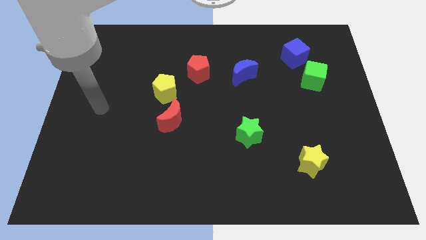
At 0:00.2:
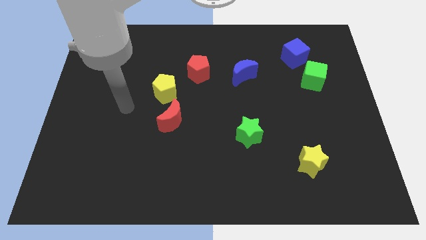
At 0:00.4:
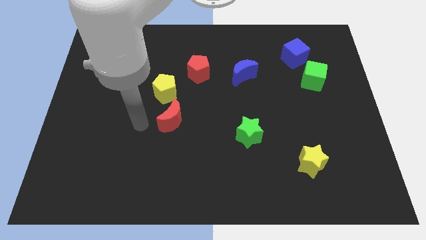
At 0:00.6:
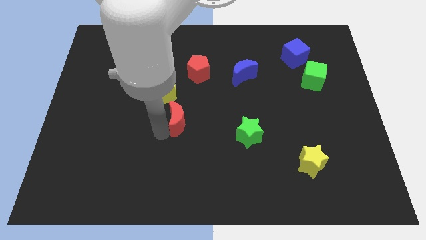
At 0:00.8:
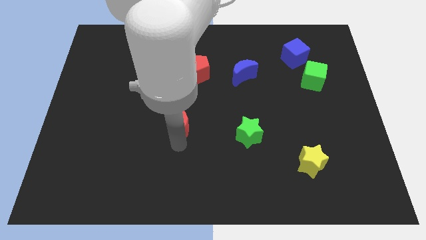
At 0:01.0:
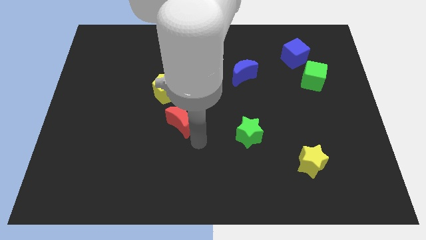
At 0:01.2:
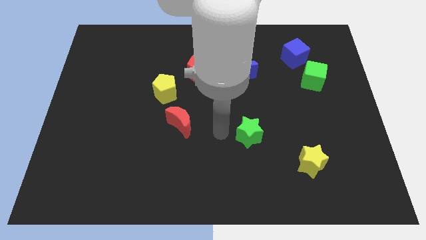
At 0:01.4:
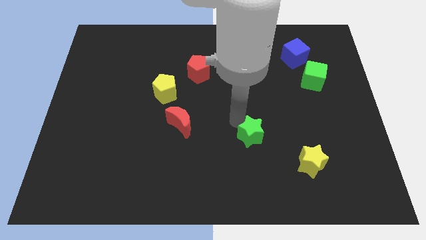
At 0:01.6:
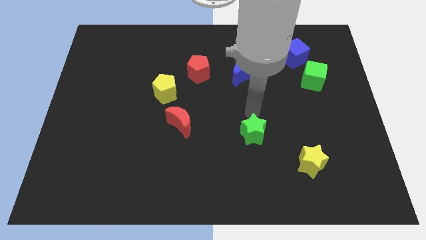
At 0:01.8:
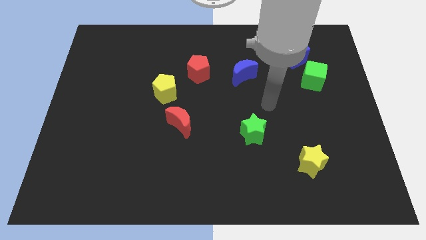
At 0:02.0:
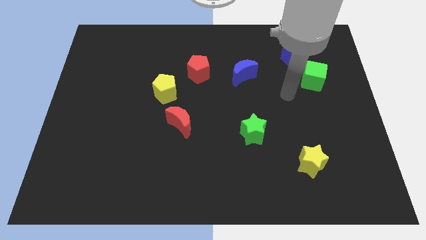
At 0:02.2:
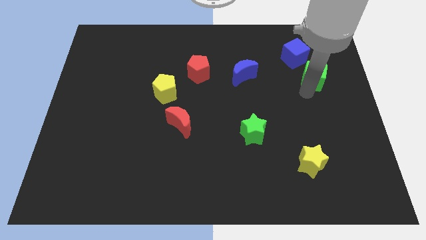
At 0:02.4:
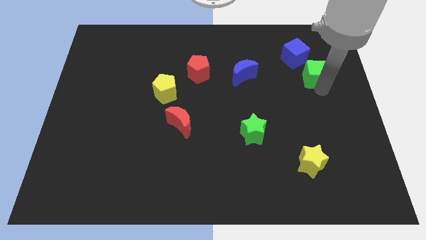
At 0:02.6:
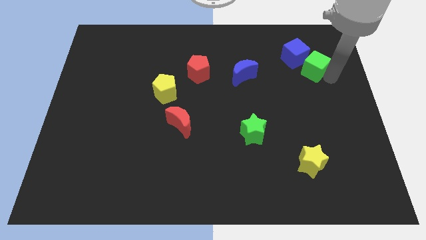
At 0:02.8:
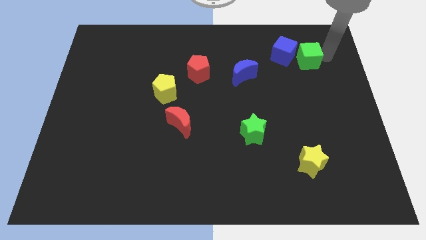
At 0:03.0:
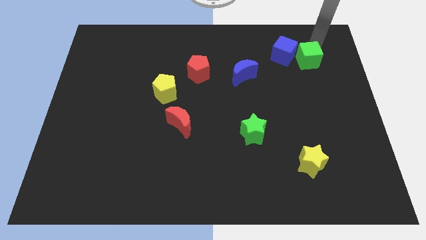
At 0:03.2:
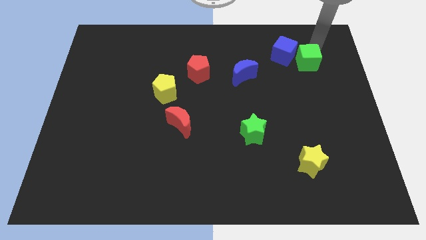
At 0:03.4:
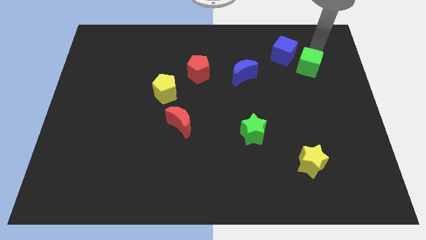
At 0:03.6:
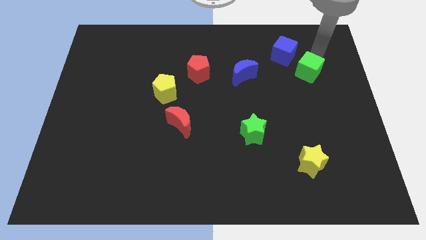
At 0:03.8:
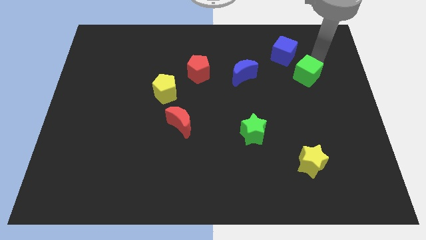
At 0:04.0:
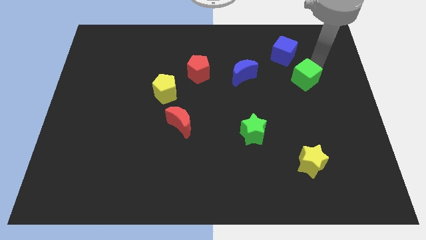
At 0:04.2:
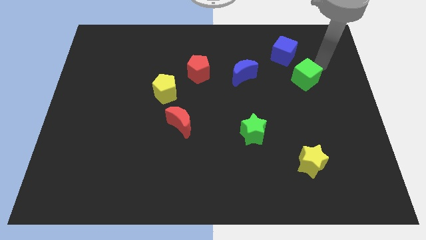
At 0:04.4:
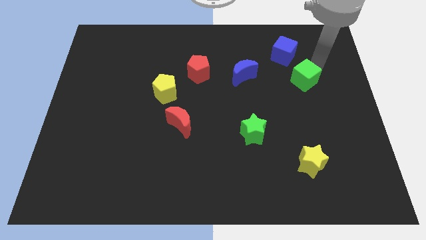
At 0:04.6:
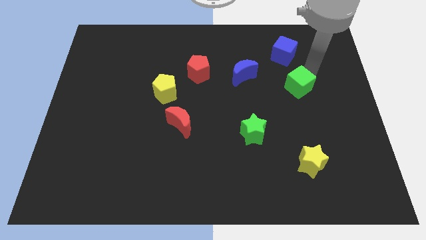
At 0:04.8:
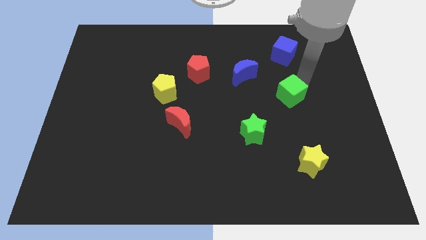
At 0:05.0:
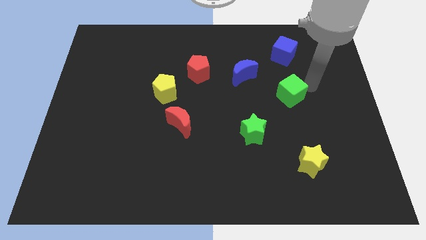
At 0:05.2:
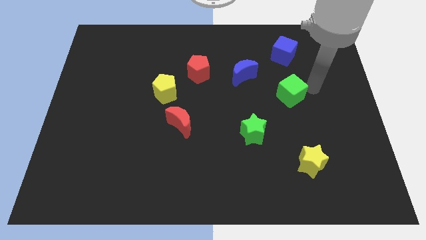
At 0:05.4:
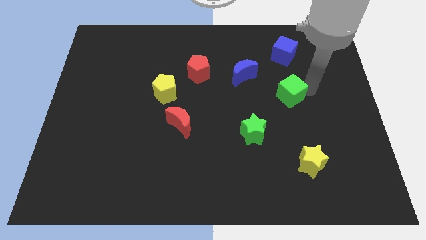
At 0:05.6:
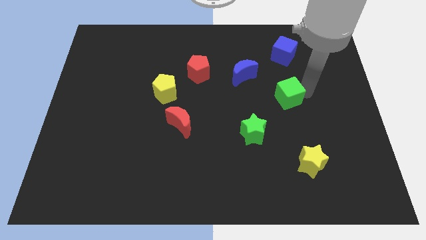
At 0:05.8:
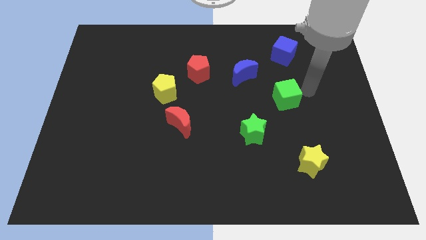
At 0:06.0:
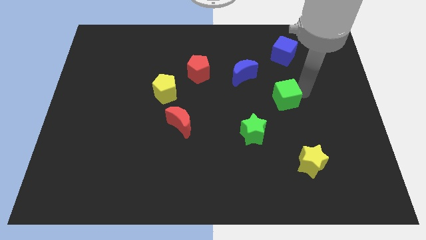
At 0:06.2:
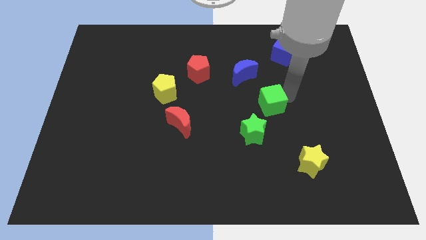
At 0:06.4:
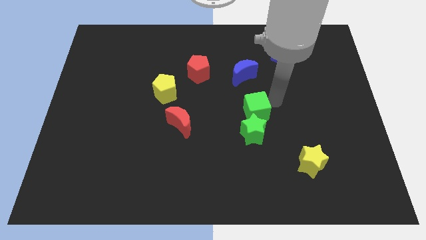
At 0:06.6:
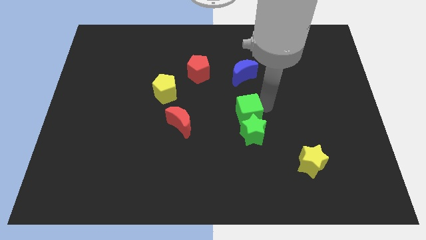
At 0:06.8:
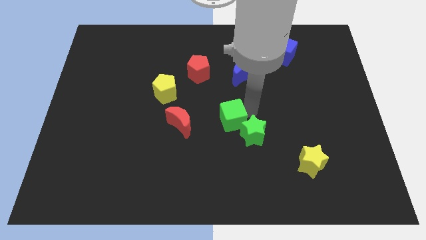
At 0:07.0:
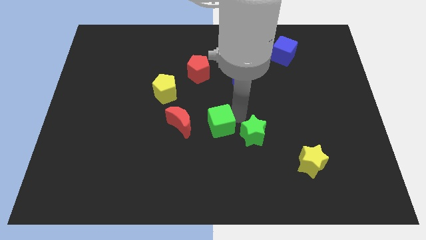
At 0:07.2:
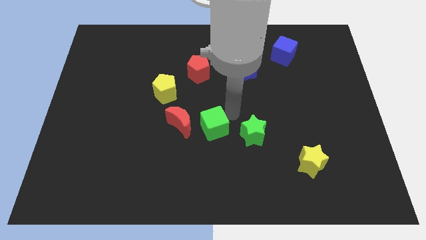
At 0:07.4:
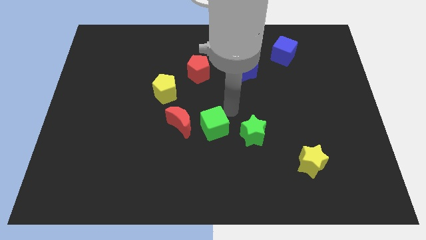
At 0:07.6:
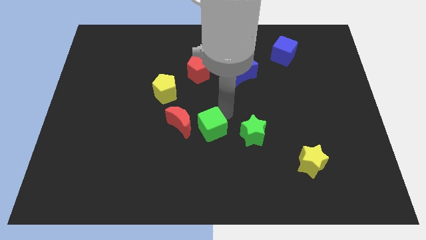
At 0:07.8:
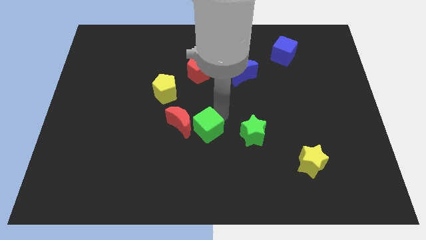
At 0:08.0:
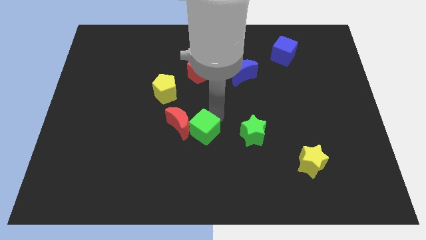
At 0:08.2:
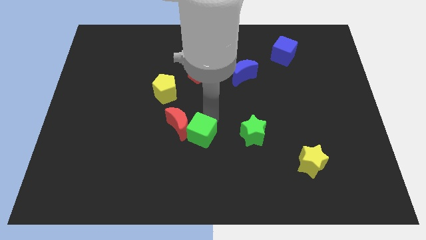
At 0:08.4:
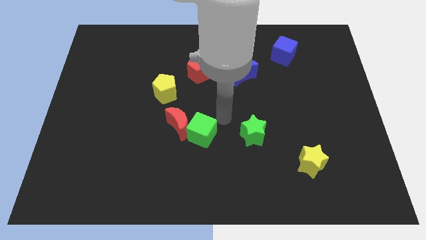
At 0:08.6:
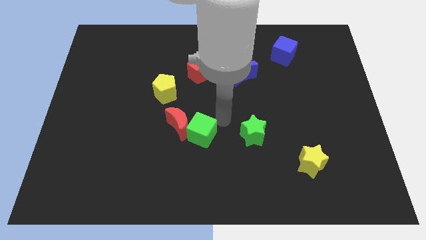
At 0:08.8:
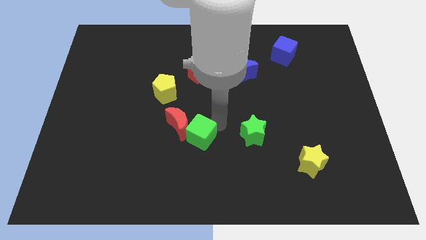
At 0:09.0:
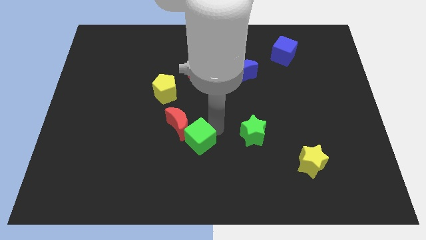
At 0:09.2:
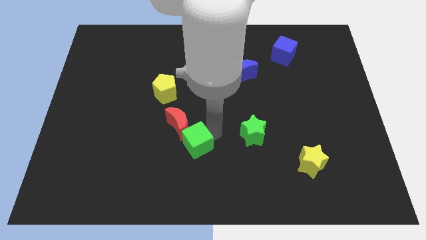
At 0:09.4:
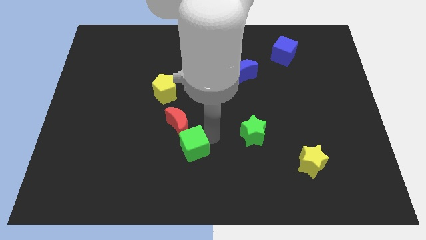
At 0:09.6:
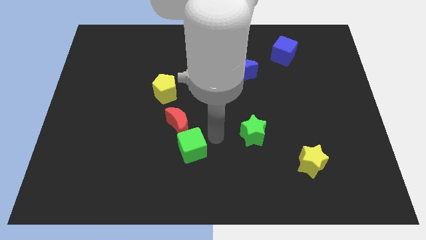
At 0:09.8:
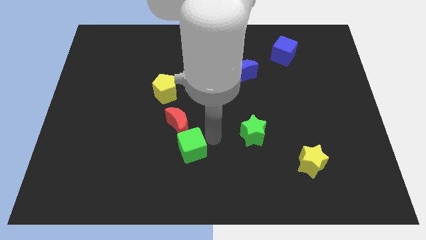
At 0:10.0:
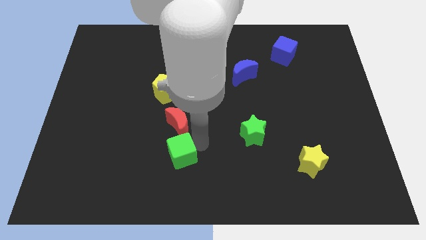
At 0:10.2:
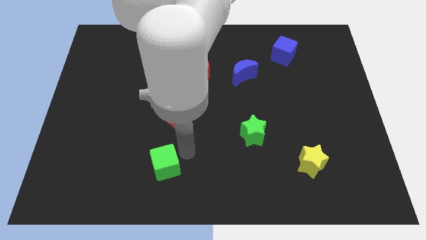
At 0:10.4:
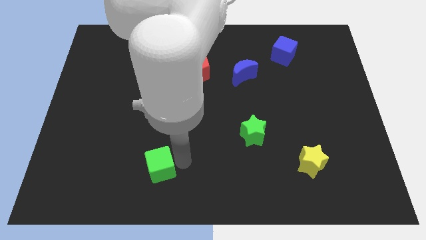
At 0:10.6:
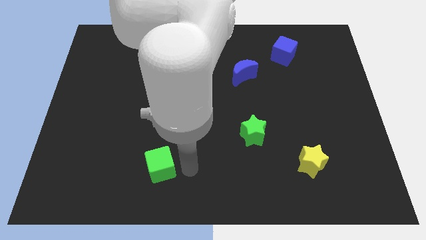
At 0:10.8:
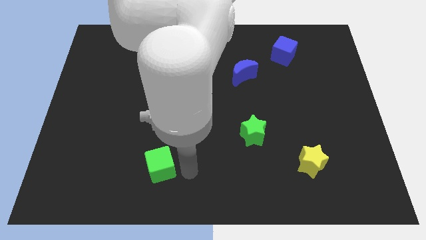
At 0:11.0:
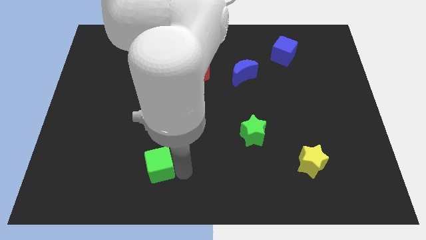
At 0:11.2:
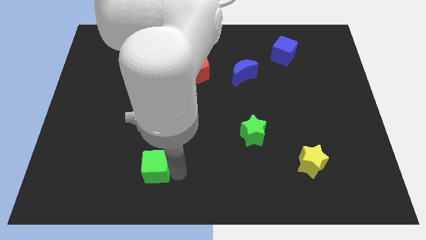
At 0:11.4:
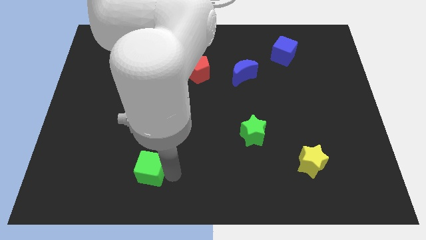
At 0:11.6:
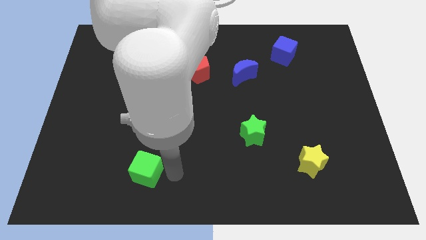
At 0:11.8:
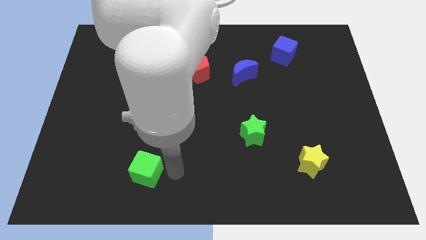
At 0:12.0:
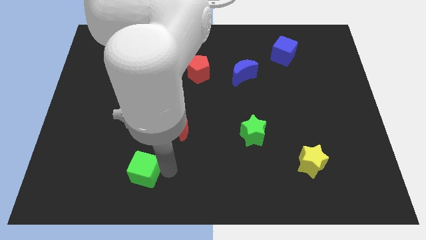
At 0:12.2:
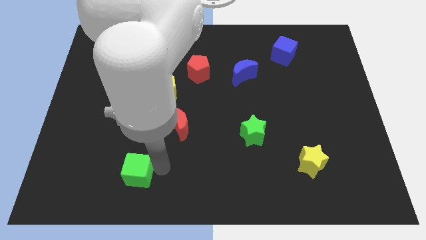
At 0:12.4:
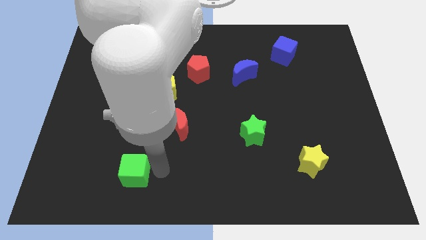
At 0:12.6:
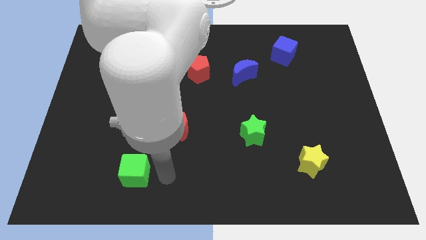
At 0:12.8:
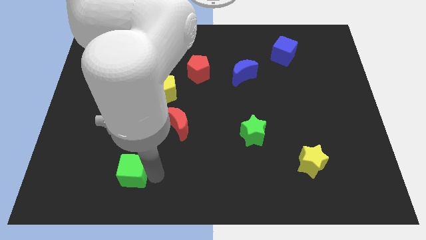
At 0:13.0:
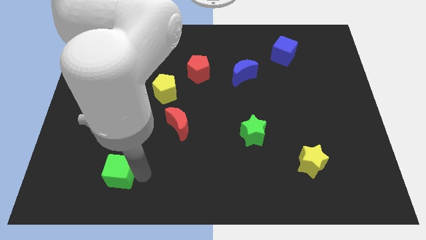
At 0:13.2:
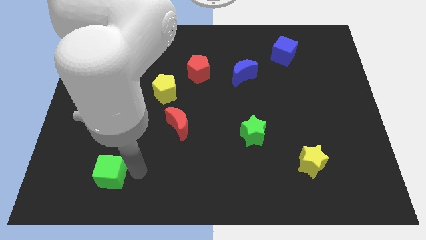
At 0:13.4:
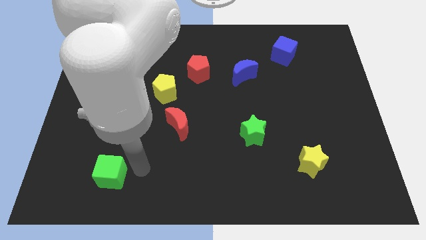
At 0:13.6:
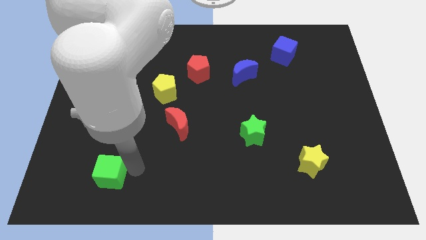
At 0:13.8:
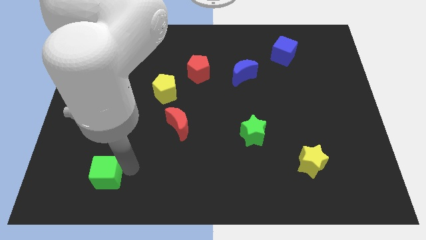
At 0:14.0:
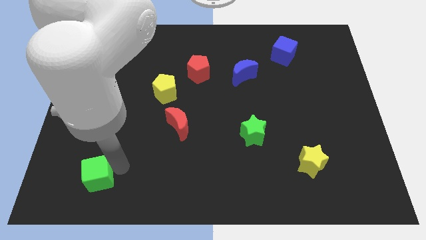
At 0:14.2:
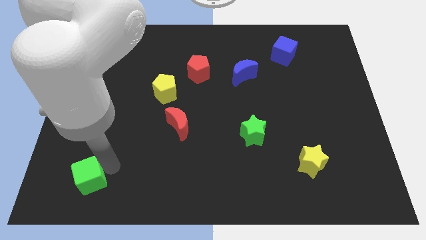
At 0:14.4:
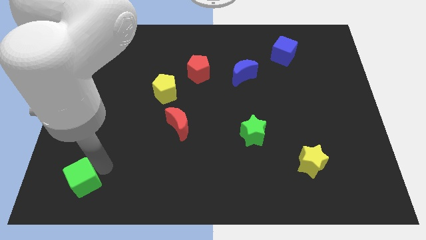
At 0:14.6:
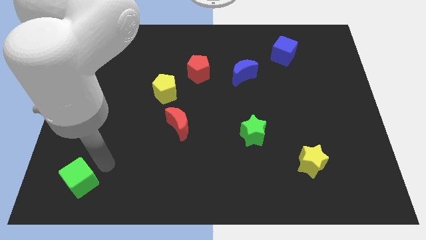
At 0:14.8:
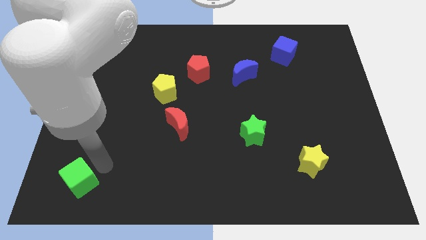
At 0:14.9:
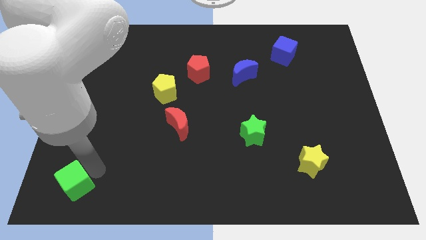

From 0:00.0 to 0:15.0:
put the green cube to the lower left corner
